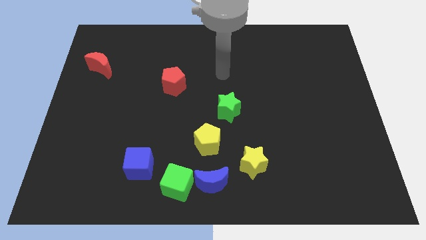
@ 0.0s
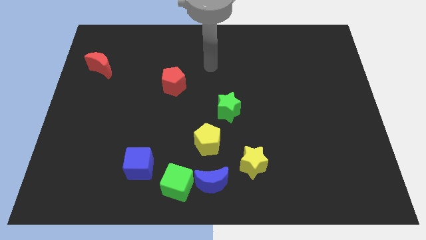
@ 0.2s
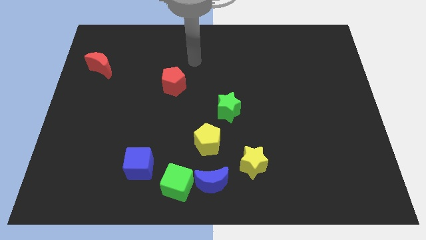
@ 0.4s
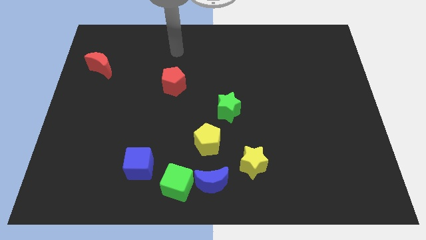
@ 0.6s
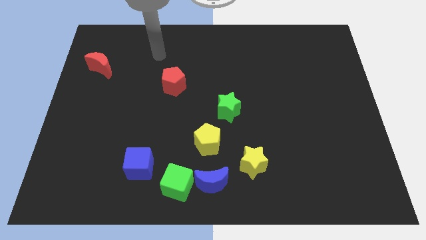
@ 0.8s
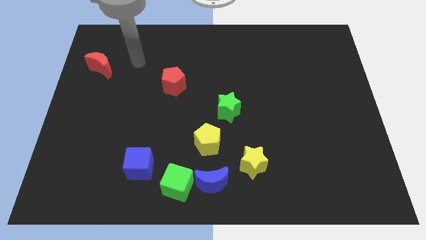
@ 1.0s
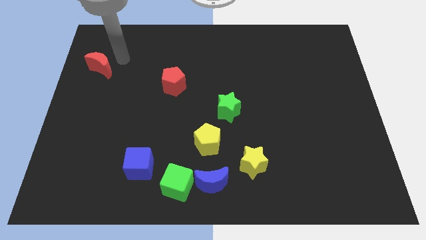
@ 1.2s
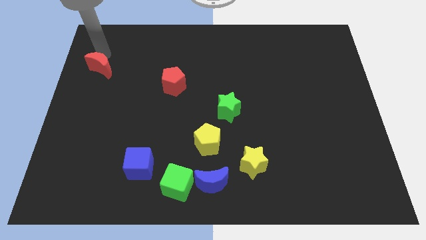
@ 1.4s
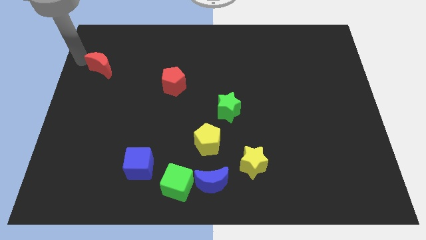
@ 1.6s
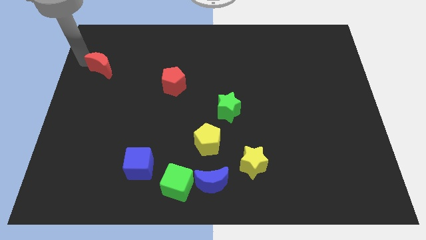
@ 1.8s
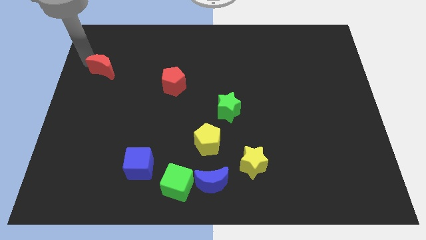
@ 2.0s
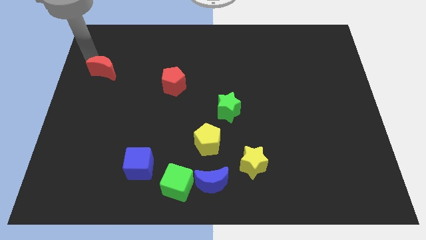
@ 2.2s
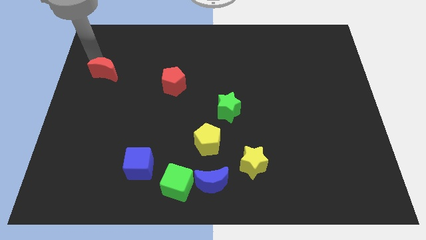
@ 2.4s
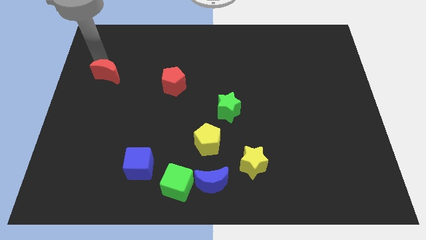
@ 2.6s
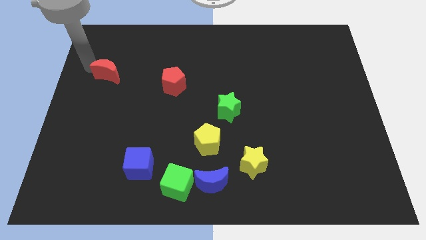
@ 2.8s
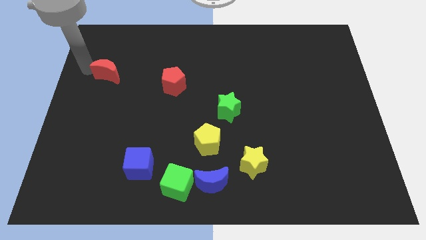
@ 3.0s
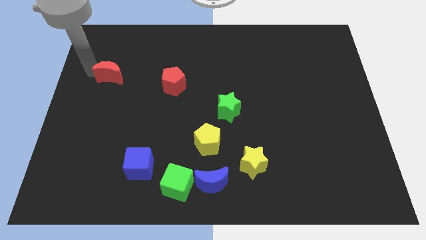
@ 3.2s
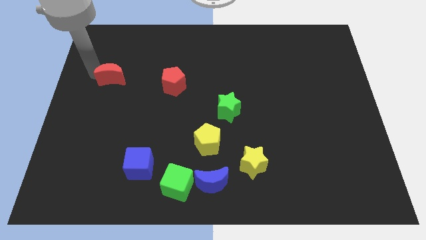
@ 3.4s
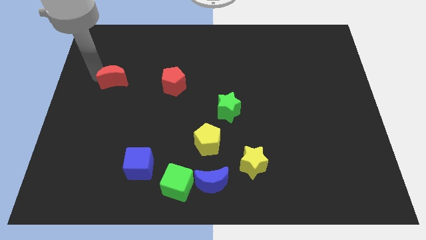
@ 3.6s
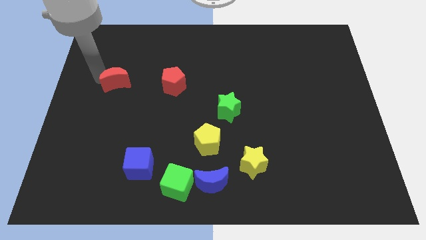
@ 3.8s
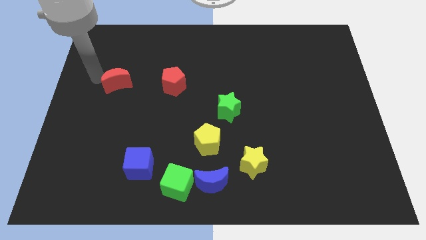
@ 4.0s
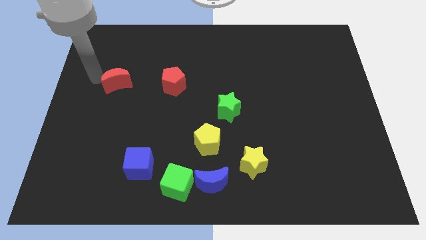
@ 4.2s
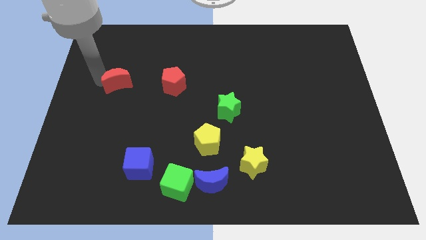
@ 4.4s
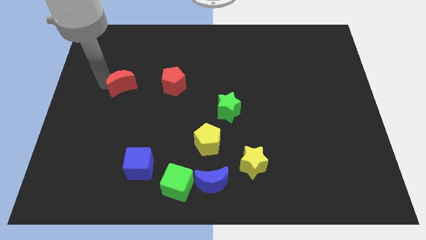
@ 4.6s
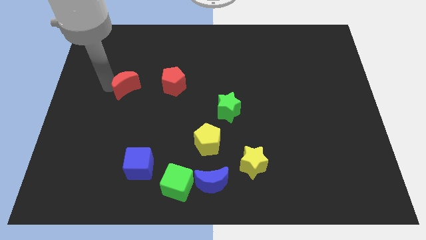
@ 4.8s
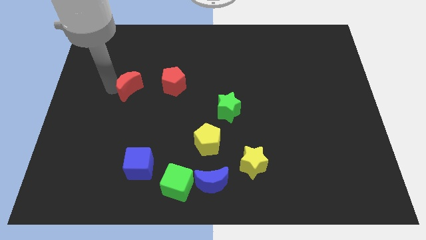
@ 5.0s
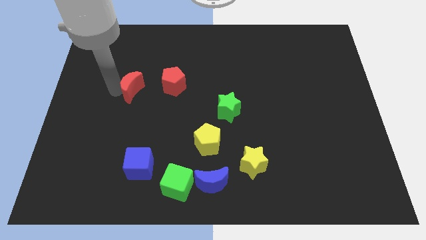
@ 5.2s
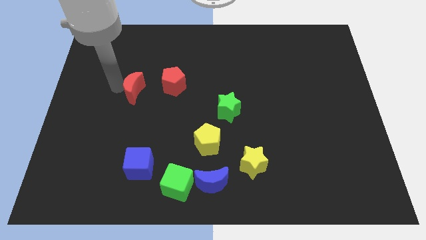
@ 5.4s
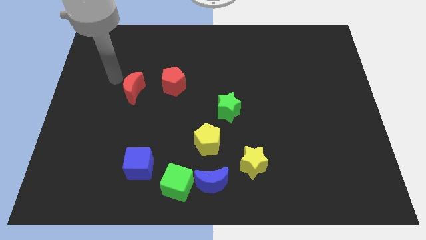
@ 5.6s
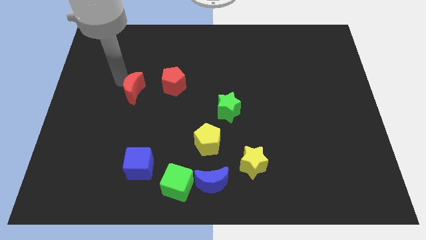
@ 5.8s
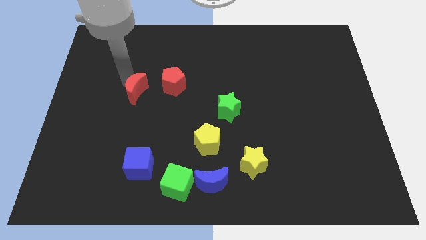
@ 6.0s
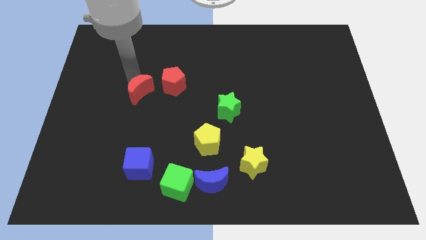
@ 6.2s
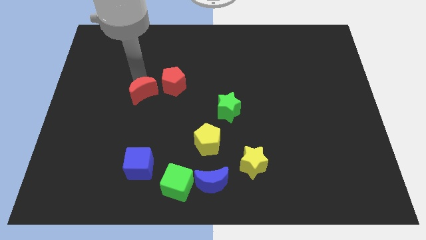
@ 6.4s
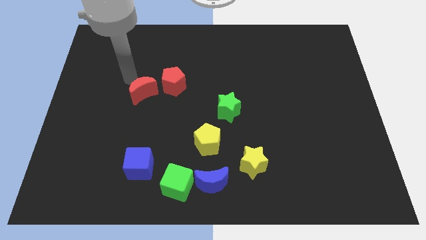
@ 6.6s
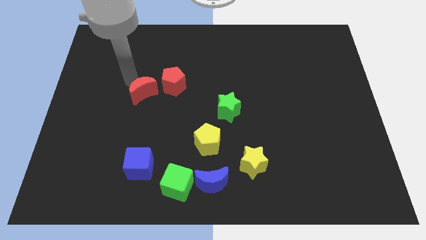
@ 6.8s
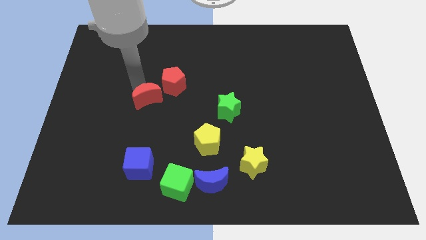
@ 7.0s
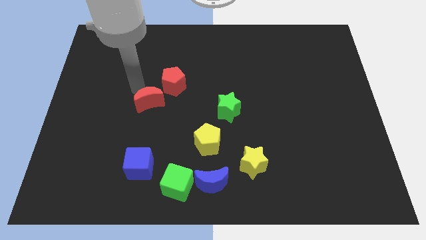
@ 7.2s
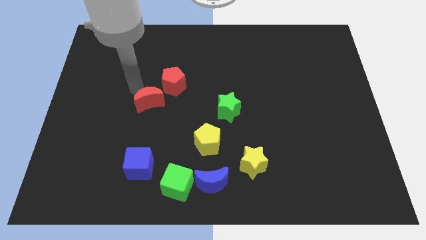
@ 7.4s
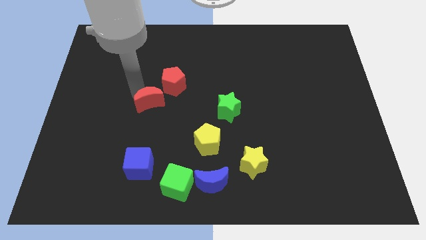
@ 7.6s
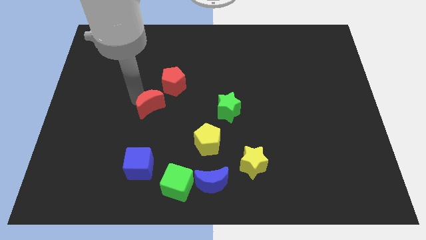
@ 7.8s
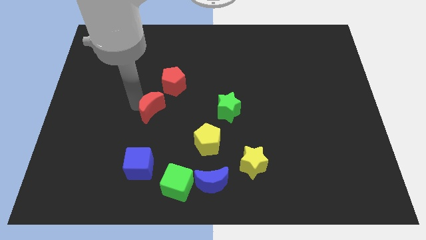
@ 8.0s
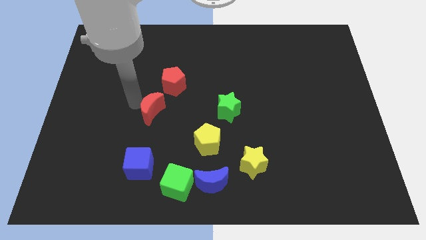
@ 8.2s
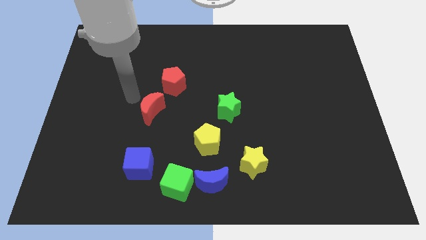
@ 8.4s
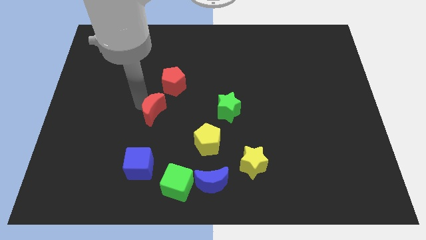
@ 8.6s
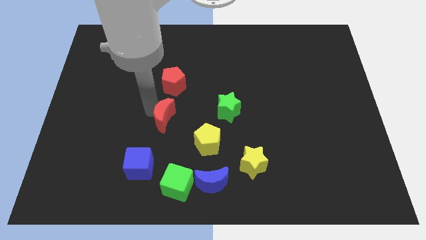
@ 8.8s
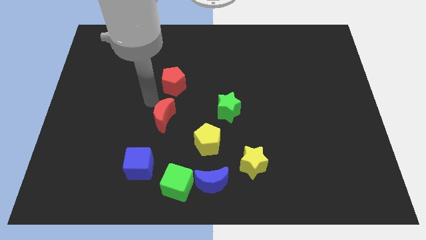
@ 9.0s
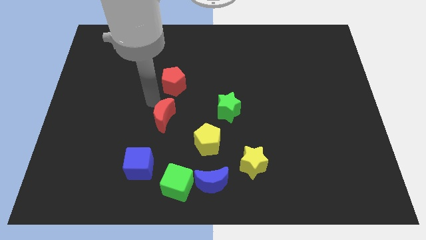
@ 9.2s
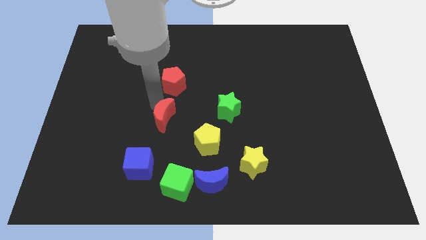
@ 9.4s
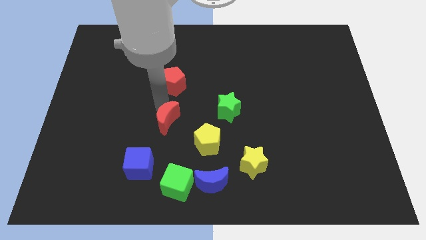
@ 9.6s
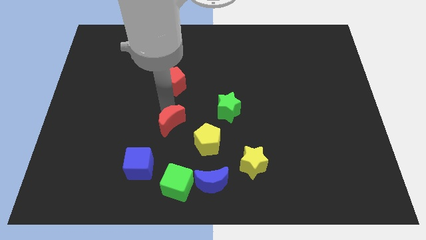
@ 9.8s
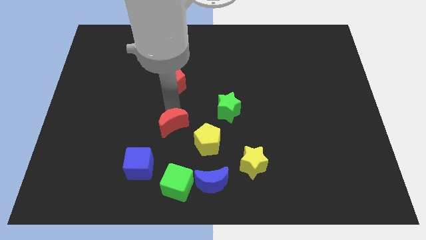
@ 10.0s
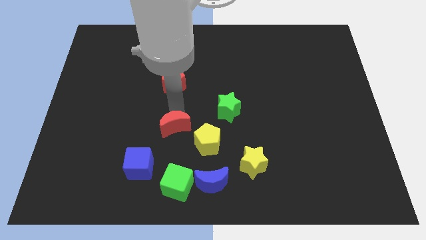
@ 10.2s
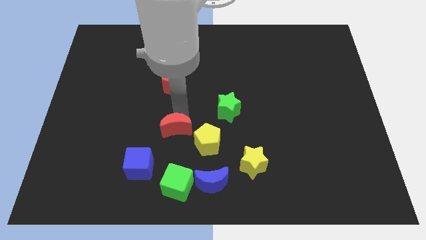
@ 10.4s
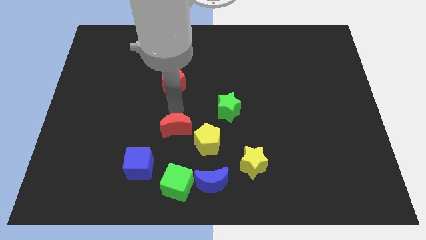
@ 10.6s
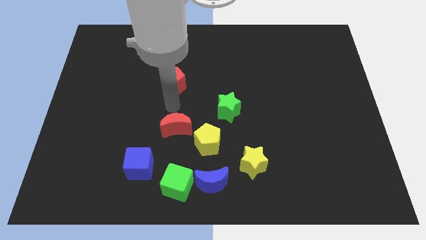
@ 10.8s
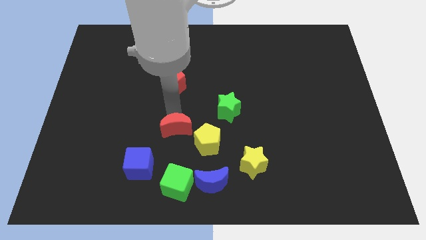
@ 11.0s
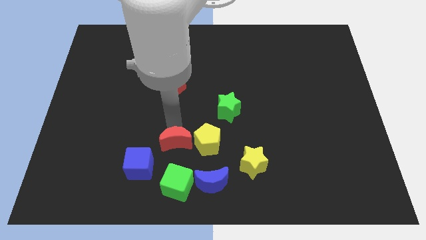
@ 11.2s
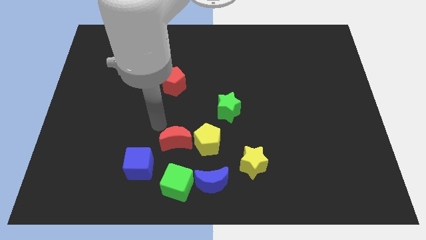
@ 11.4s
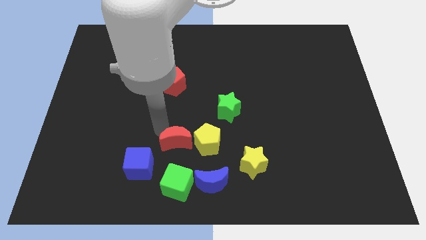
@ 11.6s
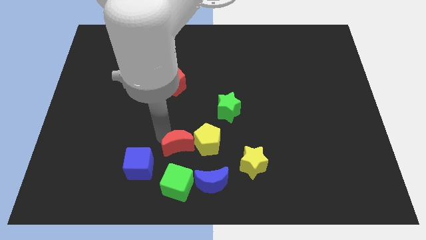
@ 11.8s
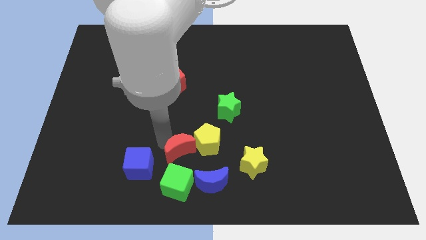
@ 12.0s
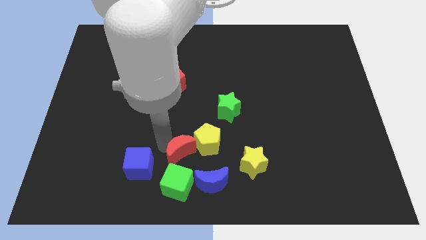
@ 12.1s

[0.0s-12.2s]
put the red moon to the left of the yellow star

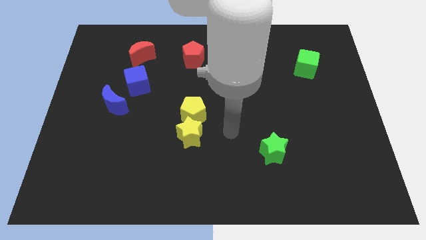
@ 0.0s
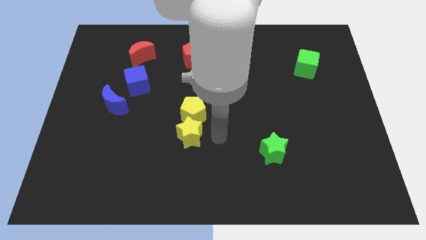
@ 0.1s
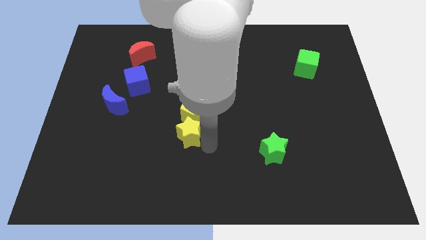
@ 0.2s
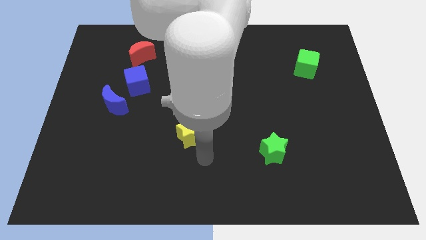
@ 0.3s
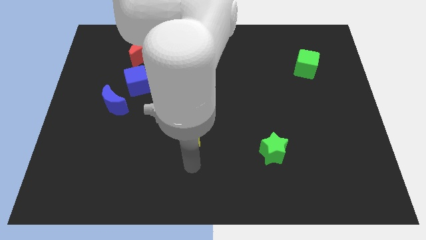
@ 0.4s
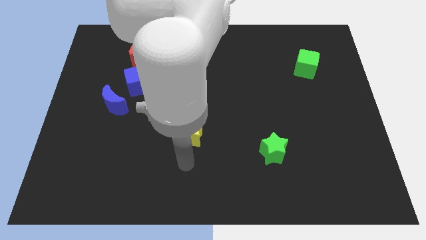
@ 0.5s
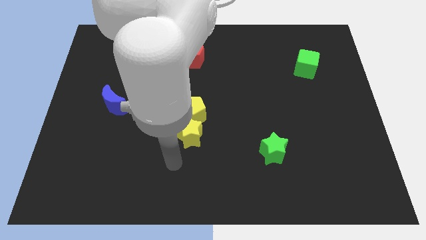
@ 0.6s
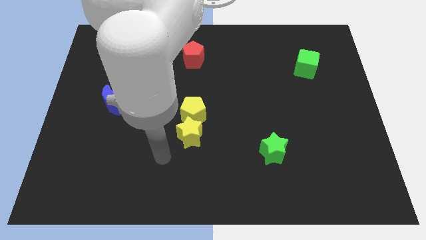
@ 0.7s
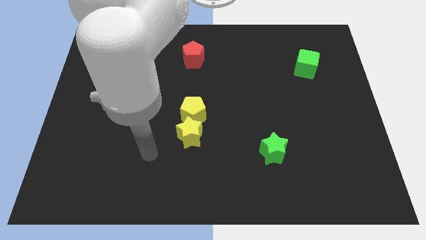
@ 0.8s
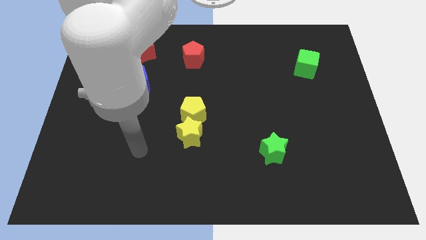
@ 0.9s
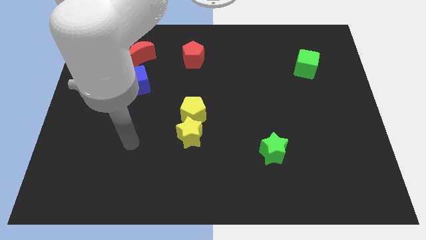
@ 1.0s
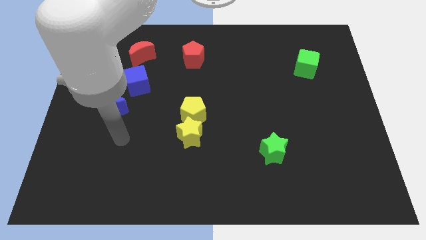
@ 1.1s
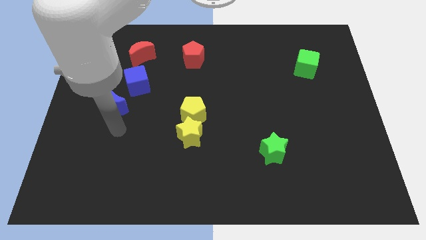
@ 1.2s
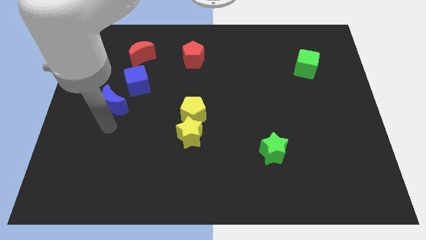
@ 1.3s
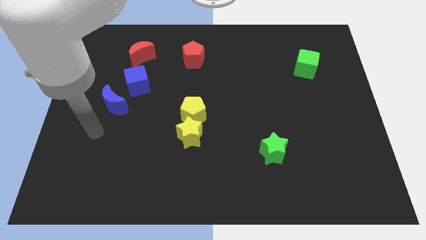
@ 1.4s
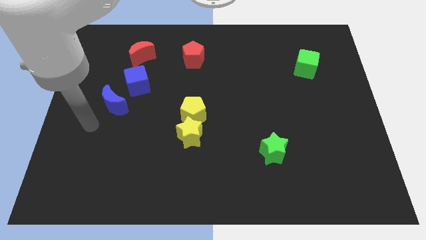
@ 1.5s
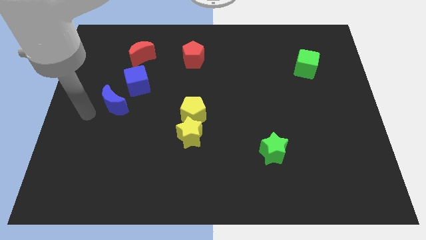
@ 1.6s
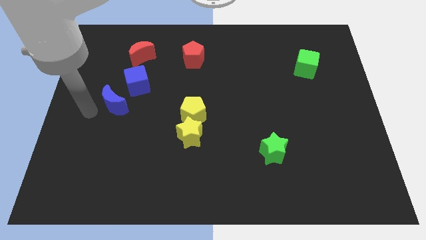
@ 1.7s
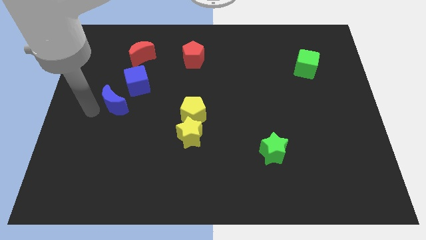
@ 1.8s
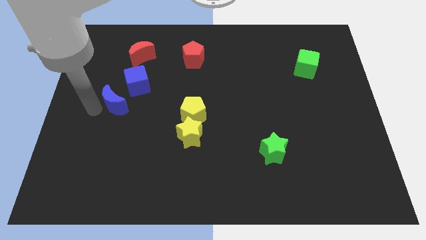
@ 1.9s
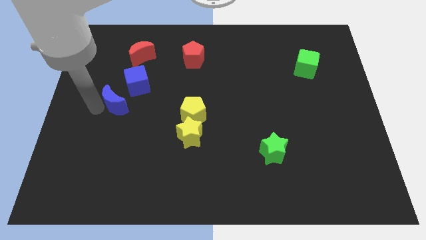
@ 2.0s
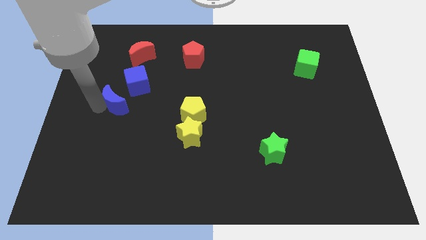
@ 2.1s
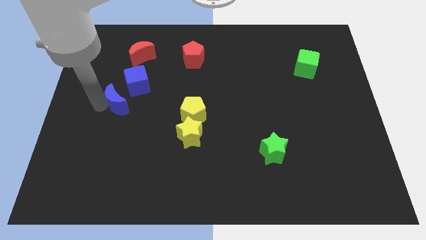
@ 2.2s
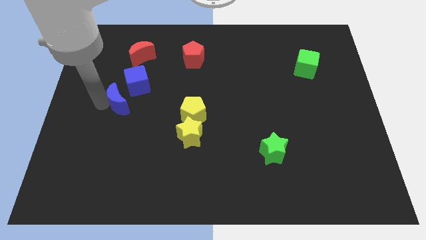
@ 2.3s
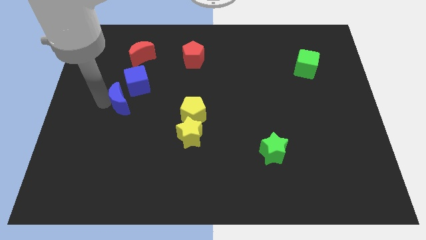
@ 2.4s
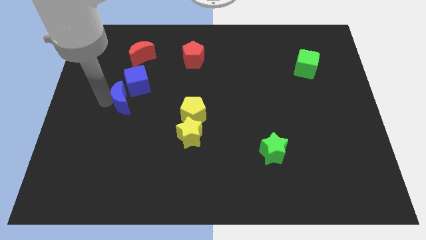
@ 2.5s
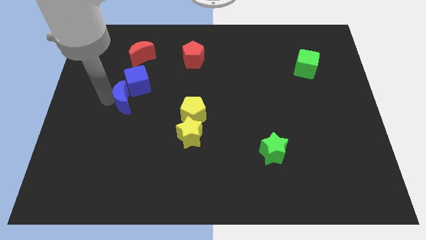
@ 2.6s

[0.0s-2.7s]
push the blue moon to the bottom of the red moon
